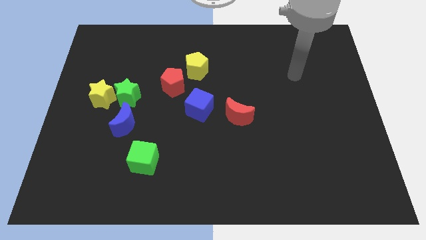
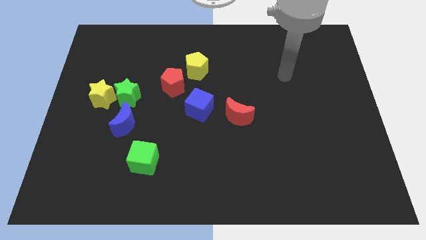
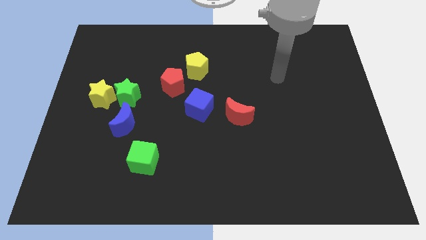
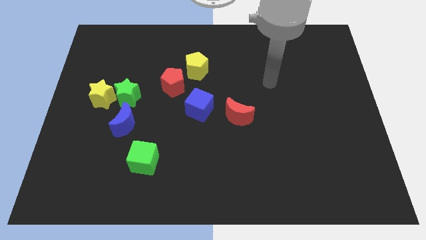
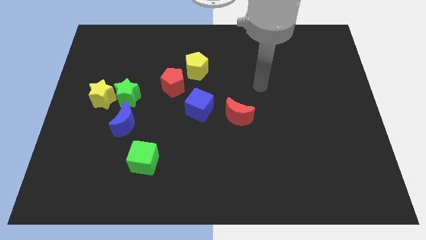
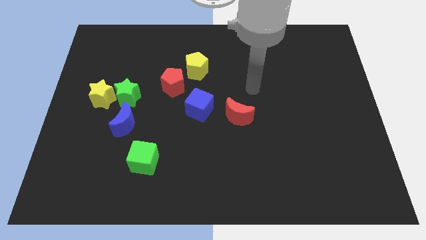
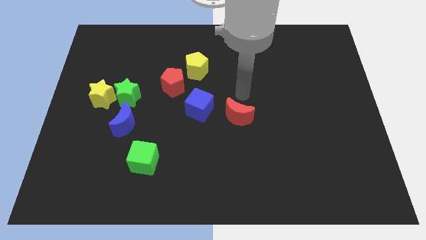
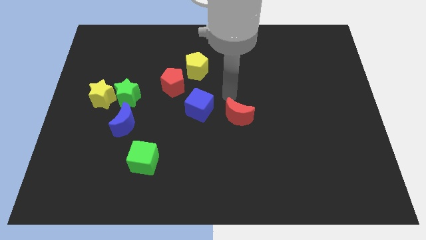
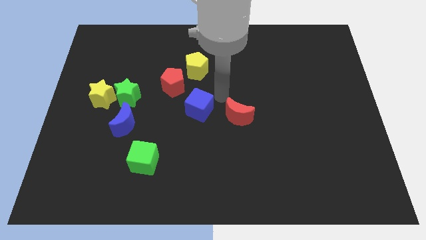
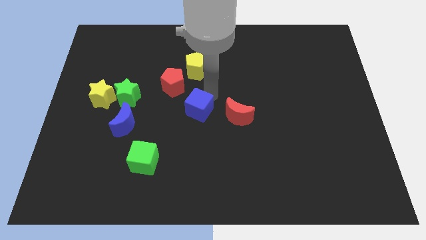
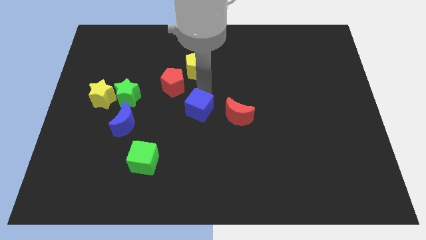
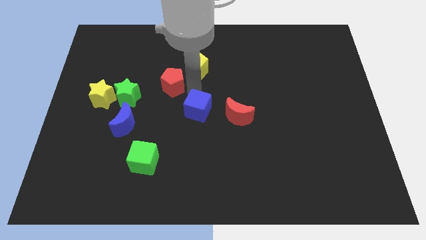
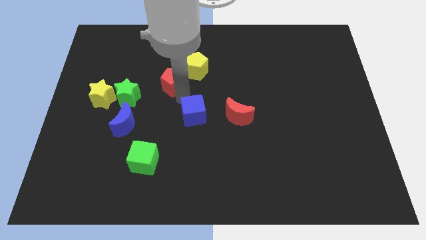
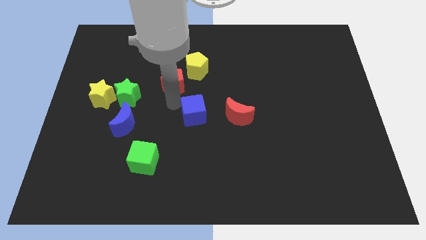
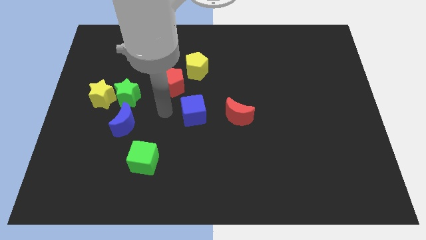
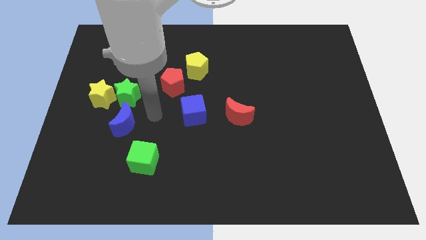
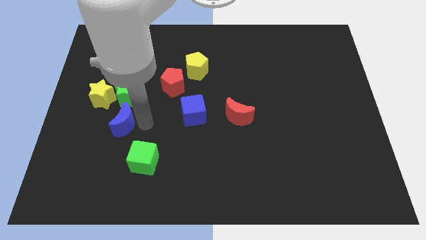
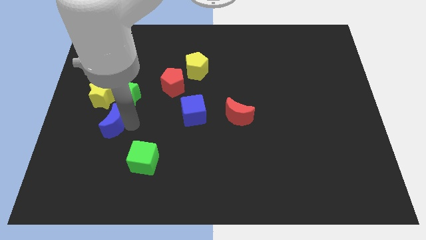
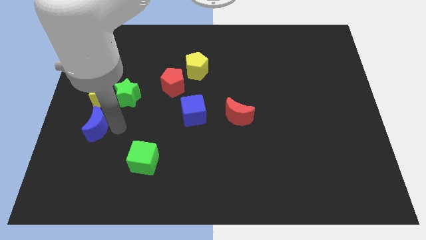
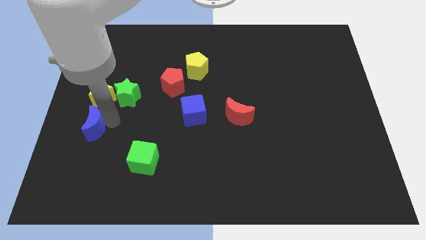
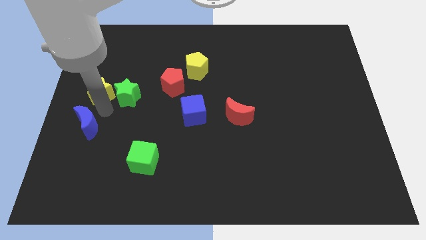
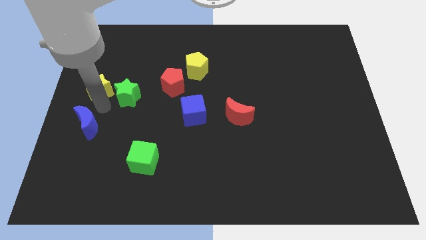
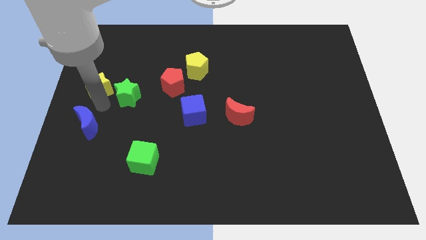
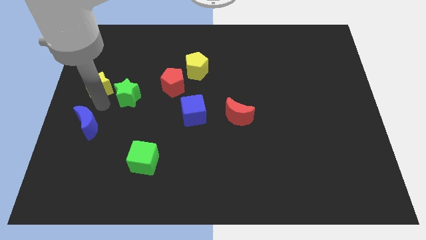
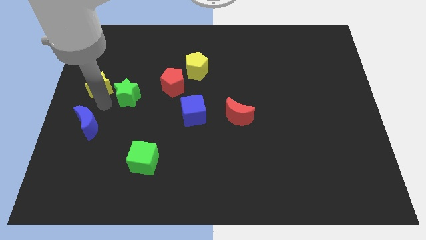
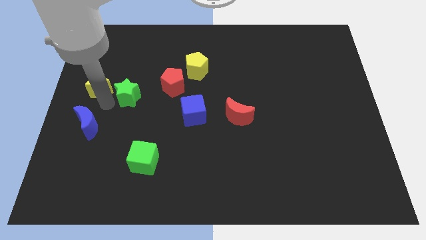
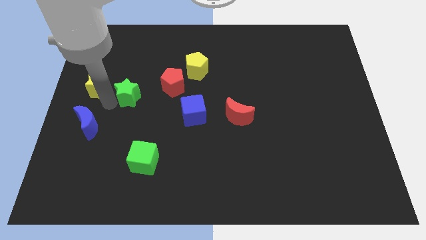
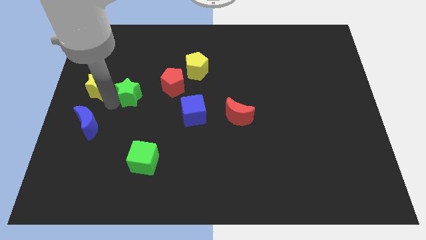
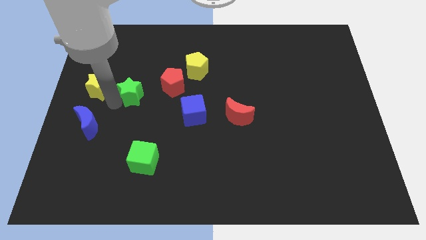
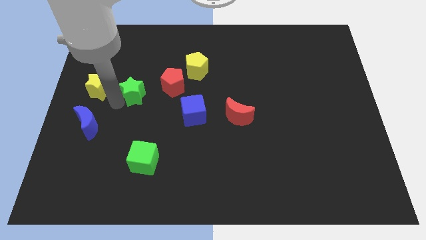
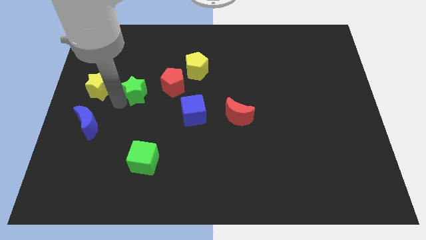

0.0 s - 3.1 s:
move the green star away from the yellow star and blue moon

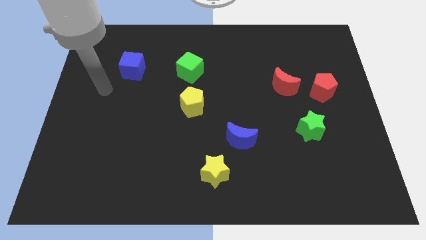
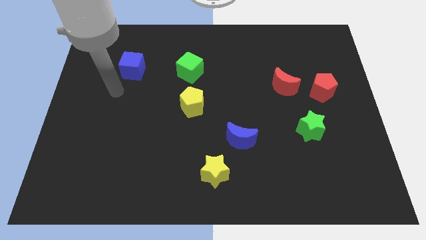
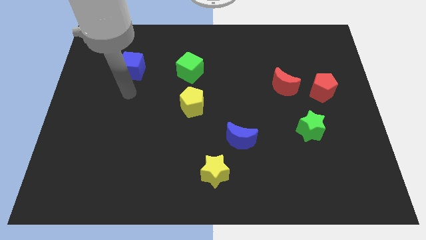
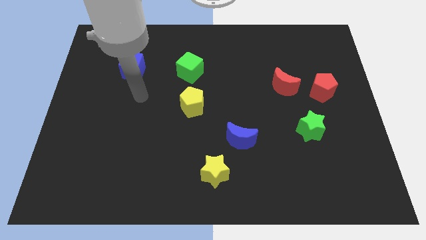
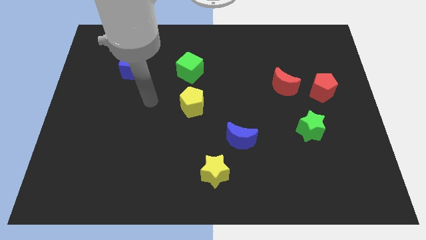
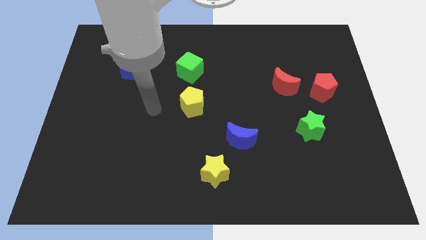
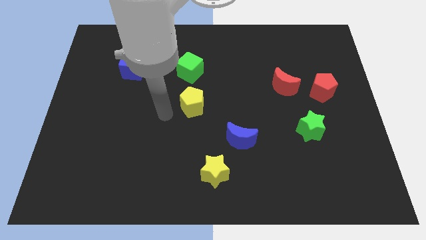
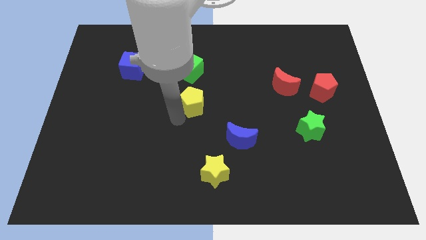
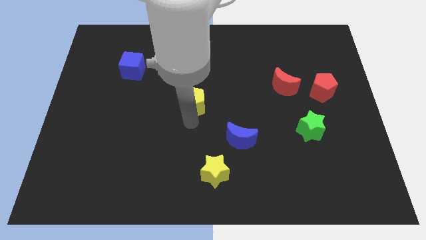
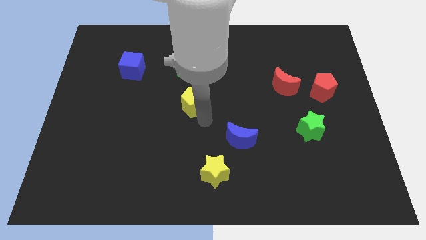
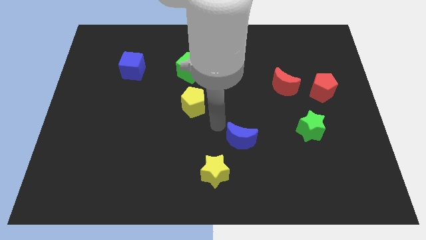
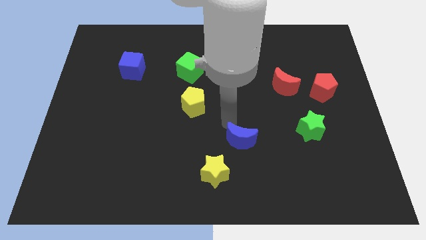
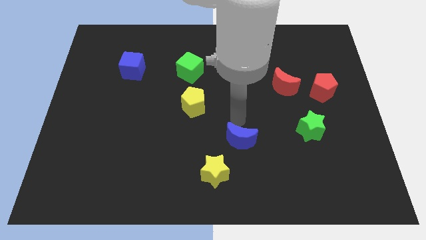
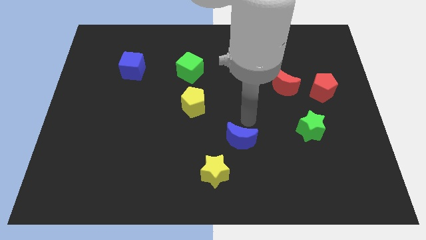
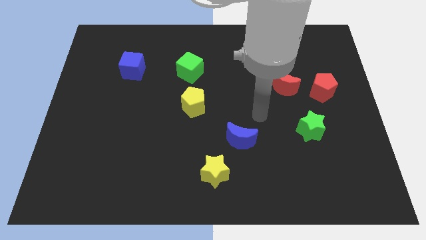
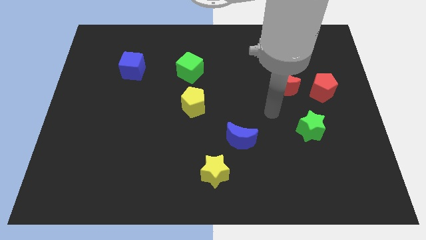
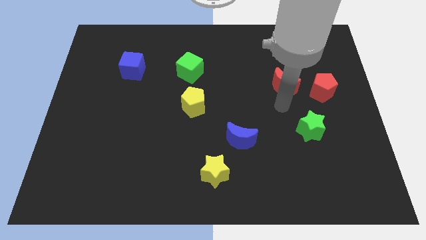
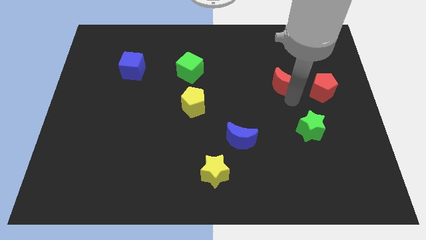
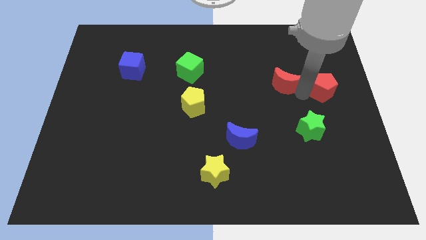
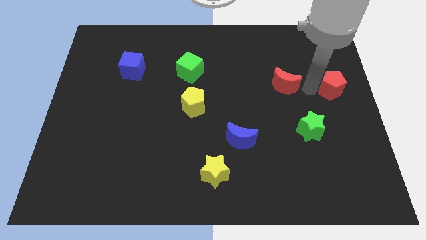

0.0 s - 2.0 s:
pull the red moon apart from the red pentagon

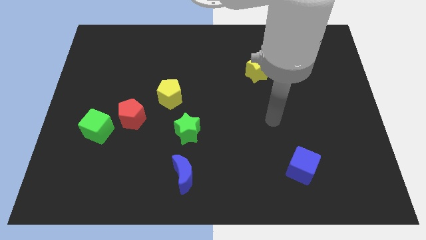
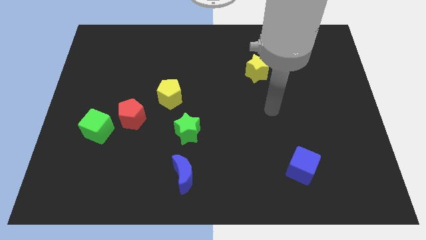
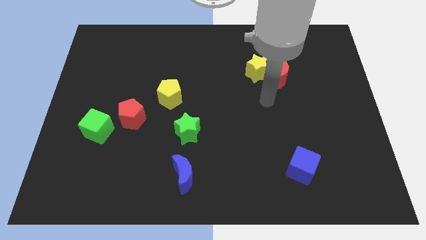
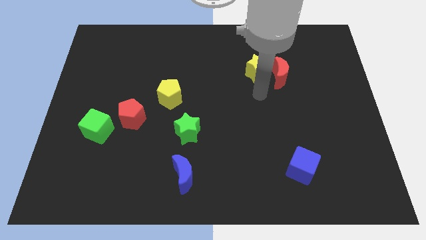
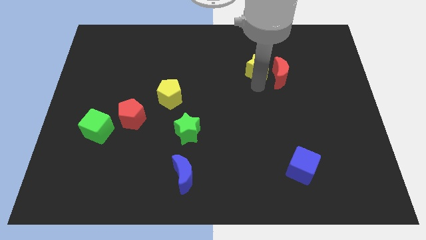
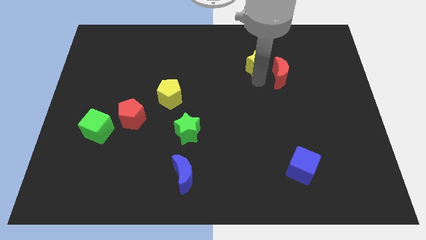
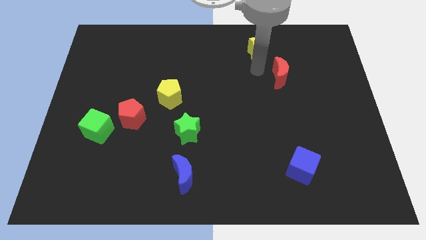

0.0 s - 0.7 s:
move the red moon away from the yellow star

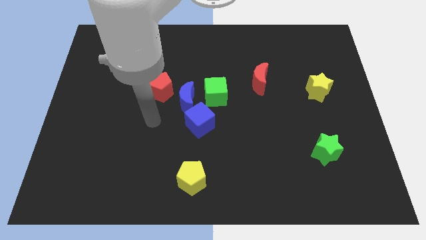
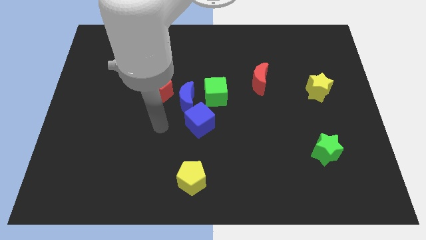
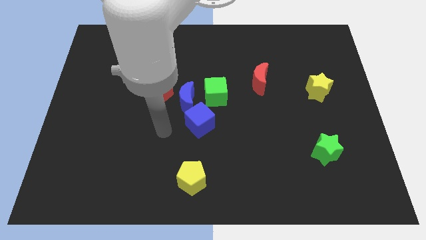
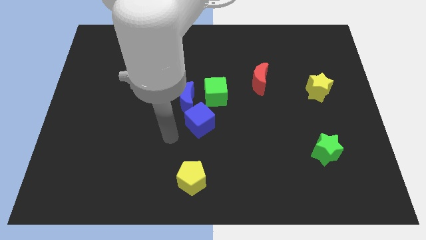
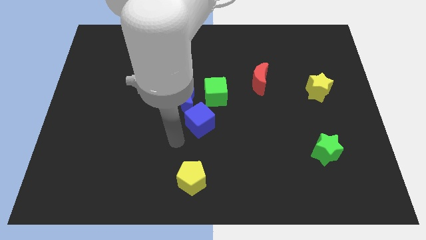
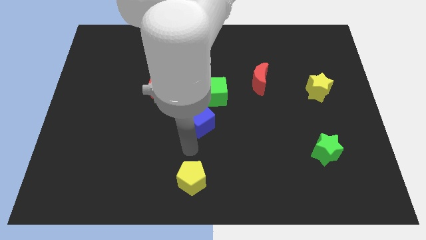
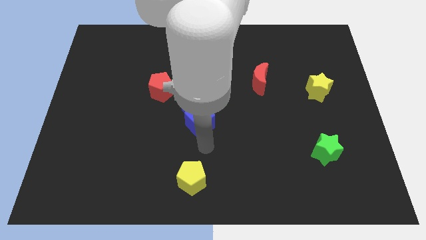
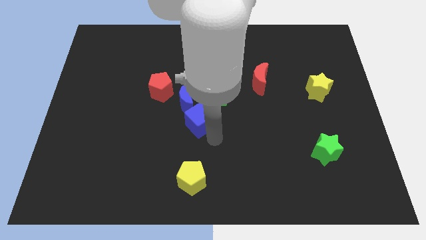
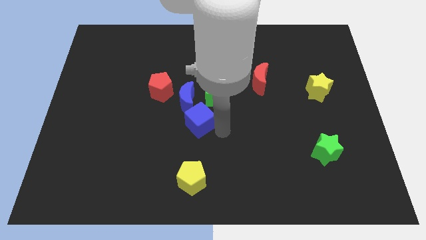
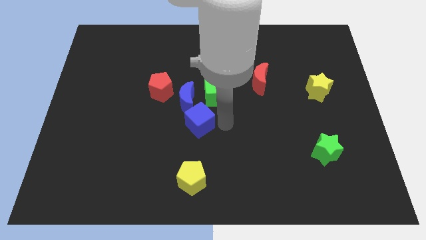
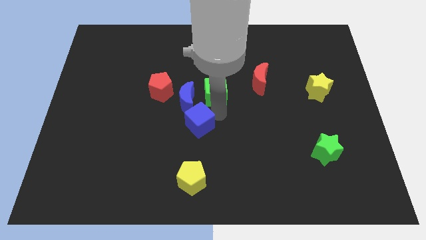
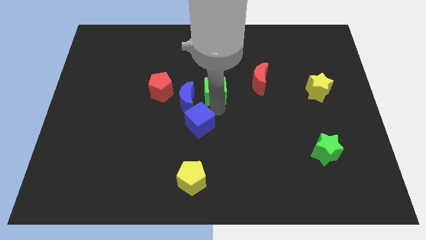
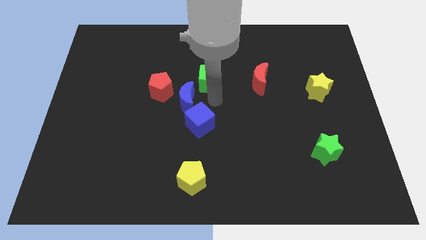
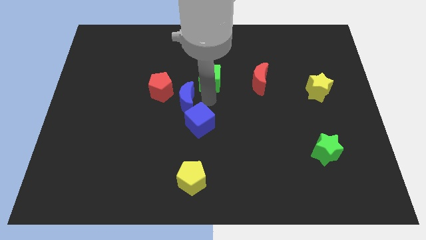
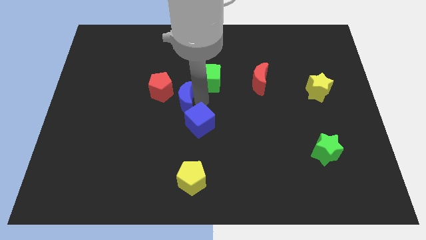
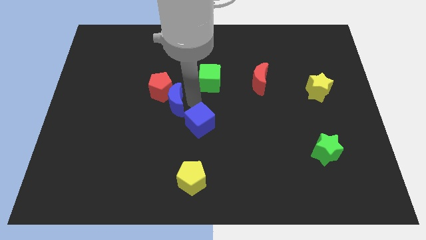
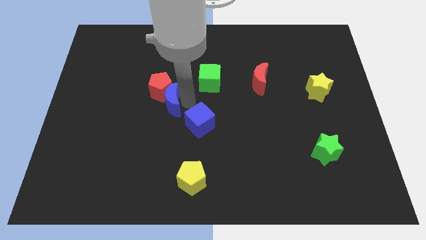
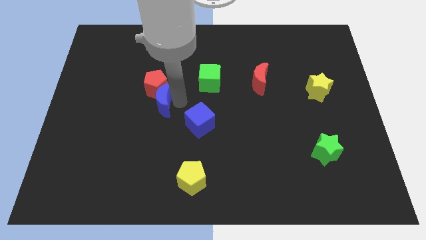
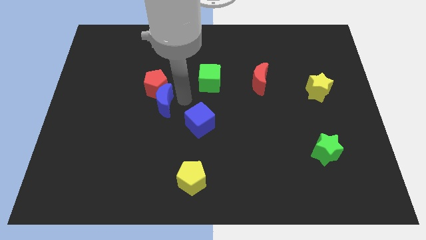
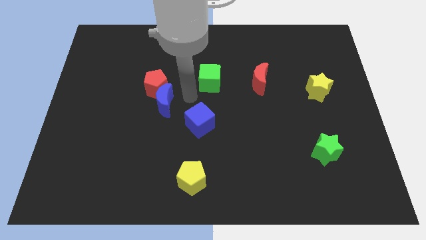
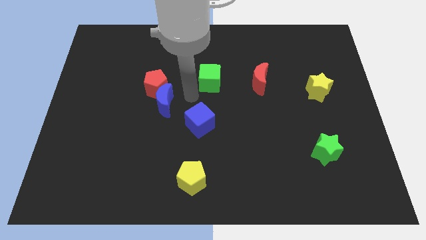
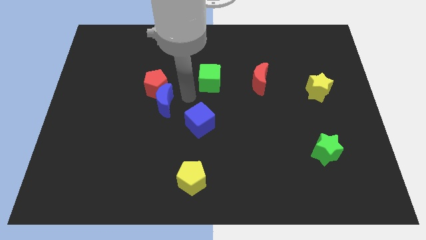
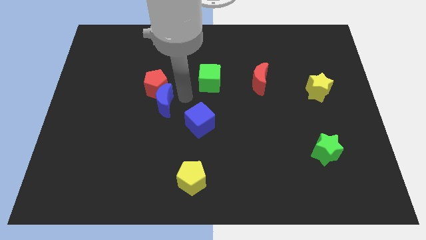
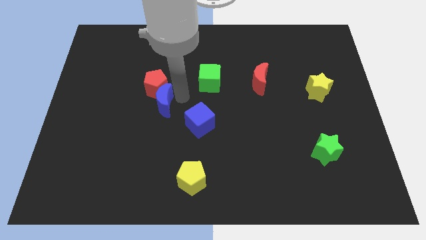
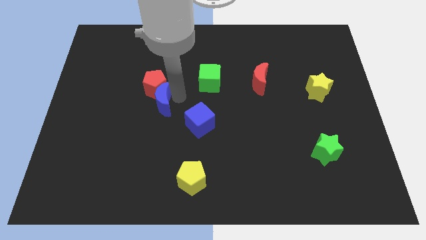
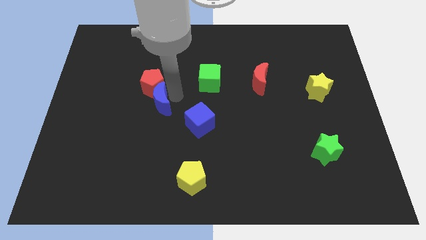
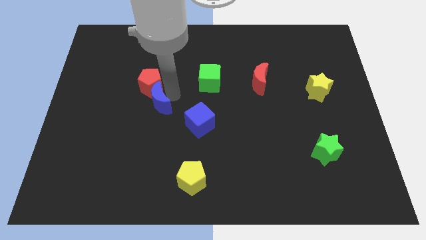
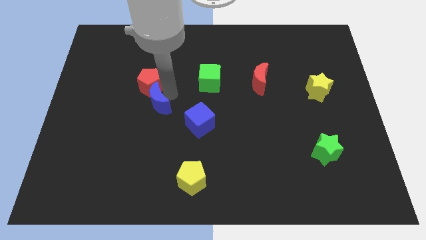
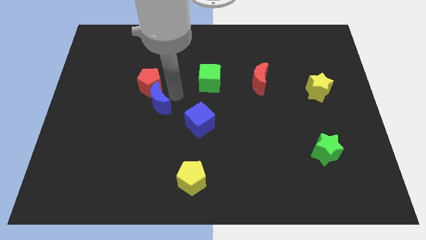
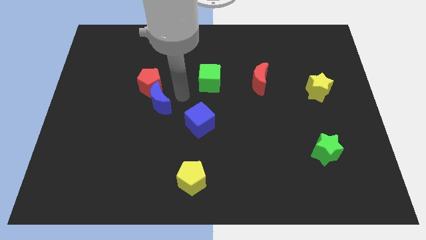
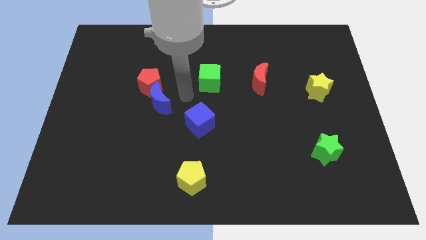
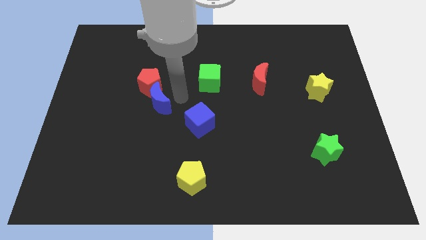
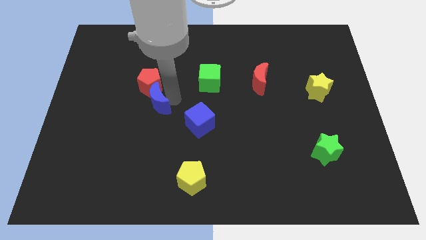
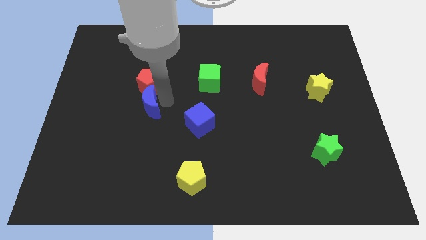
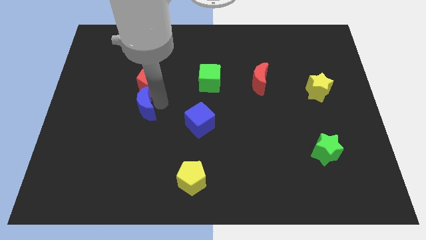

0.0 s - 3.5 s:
move the blue moon away from the group
